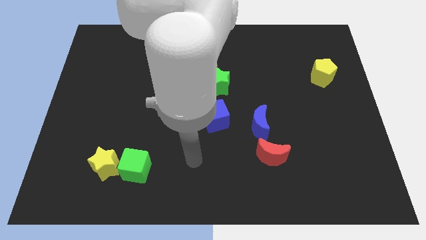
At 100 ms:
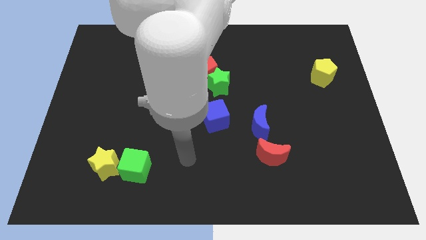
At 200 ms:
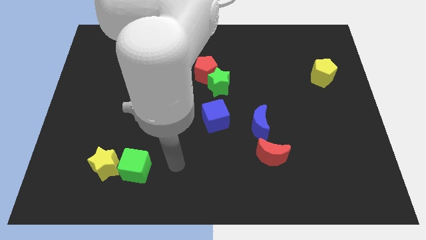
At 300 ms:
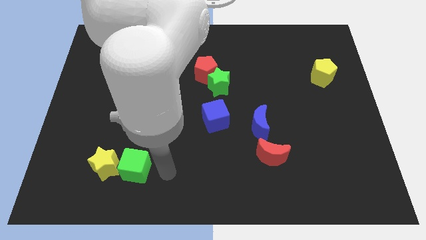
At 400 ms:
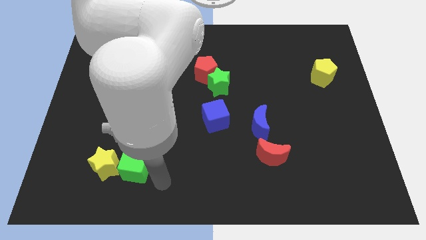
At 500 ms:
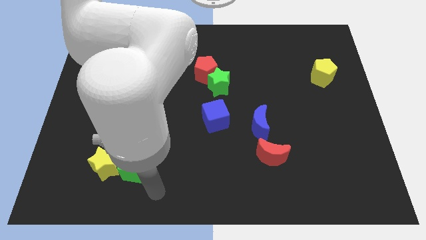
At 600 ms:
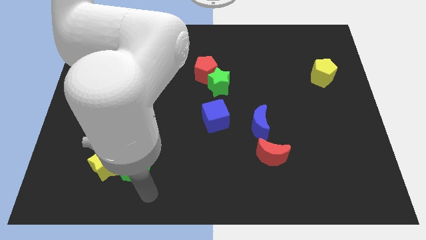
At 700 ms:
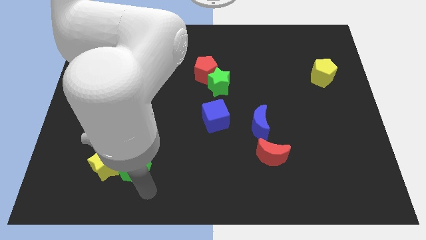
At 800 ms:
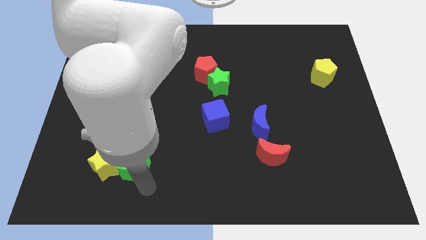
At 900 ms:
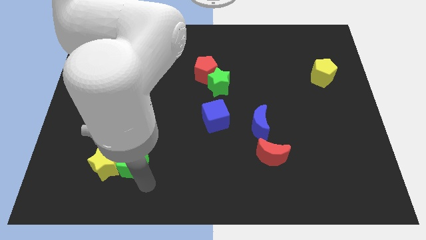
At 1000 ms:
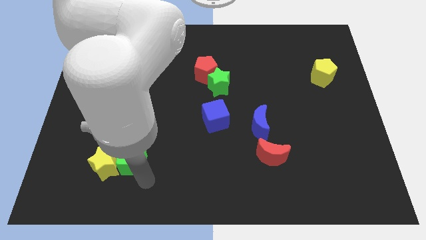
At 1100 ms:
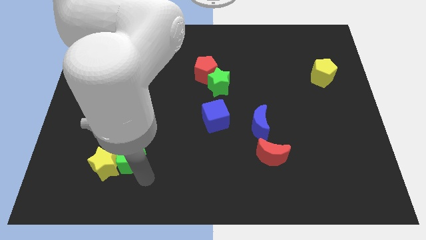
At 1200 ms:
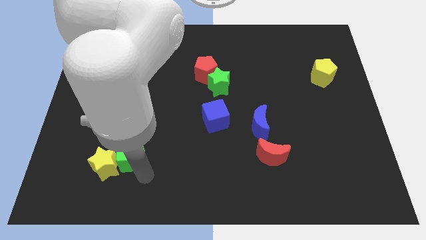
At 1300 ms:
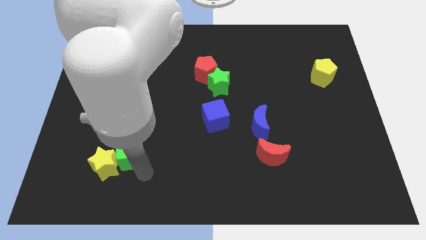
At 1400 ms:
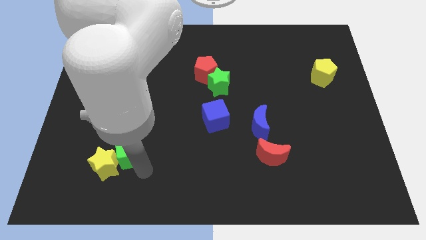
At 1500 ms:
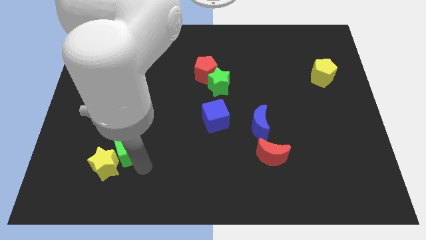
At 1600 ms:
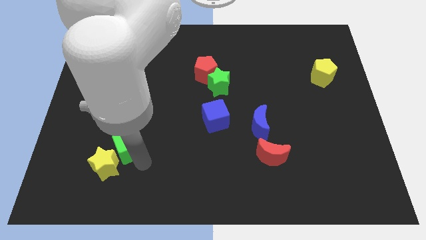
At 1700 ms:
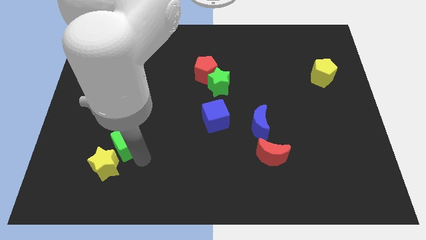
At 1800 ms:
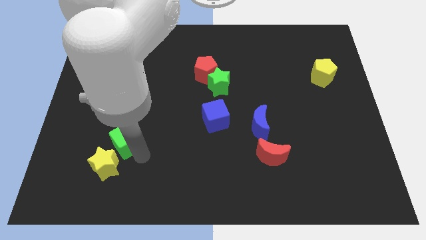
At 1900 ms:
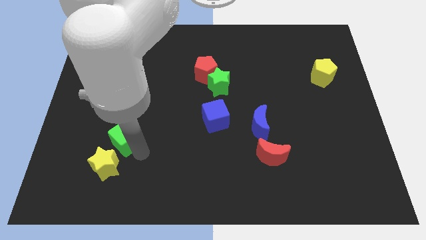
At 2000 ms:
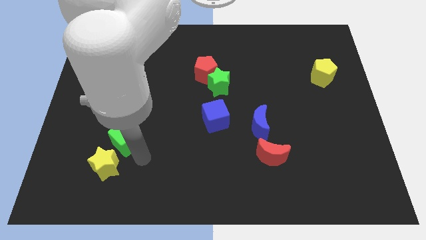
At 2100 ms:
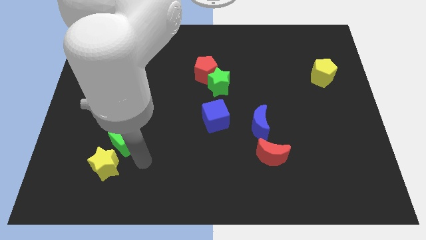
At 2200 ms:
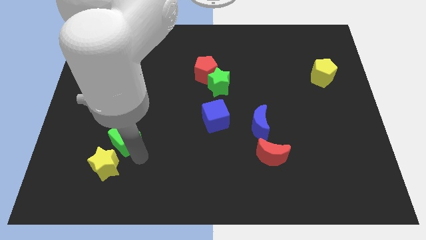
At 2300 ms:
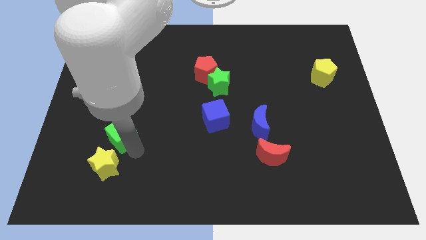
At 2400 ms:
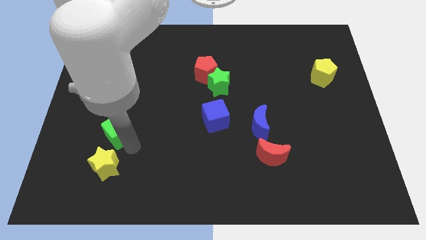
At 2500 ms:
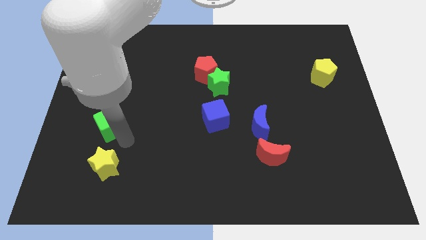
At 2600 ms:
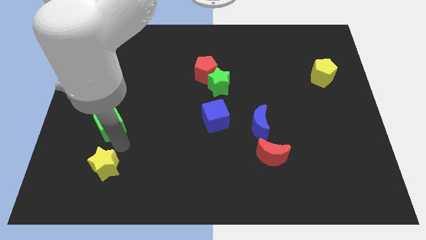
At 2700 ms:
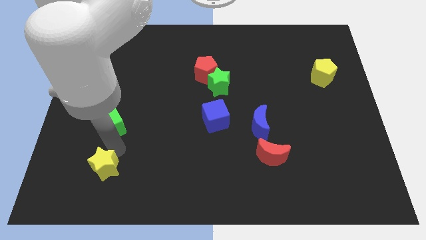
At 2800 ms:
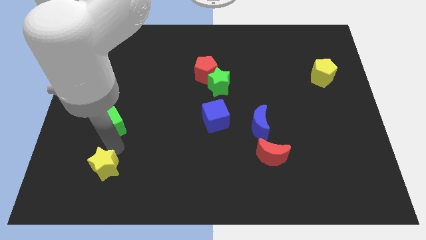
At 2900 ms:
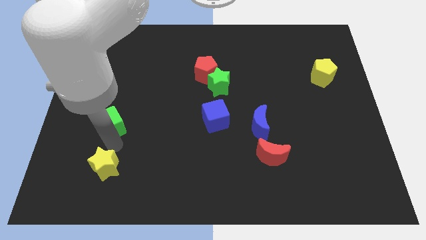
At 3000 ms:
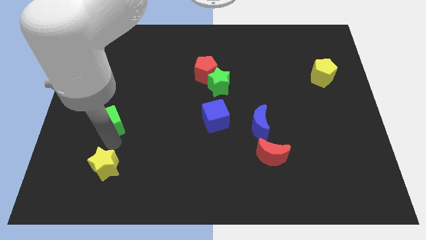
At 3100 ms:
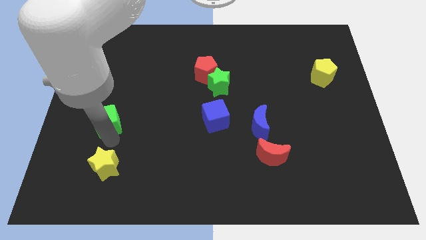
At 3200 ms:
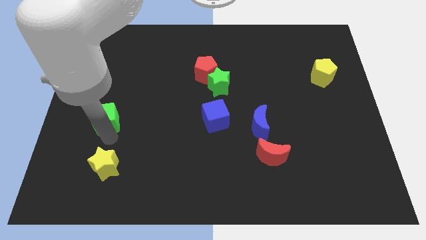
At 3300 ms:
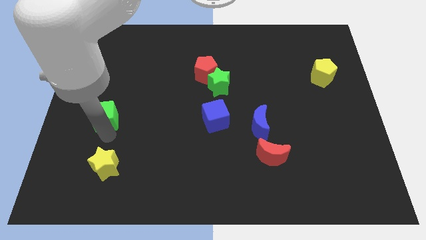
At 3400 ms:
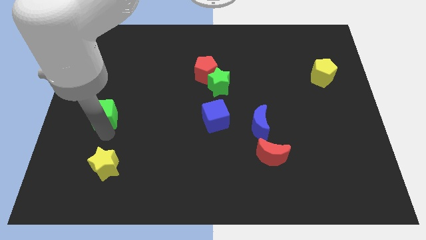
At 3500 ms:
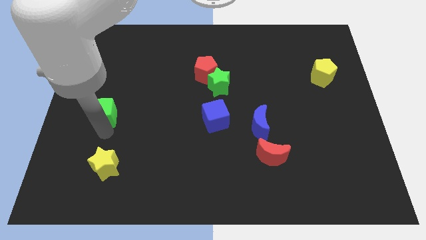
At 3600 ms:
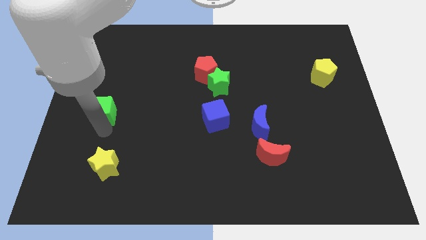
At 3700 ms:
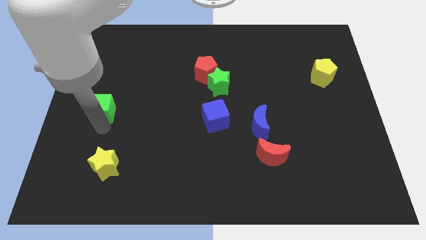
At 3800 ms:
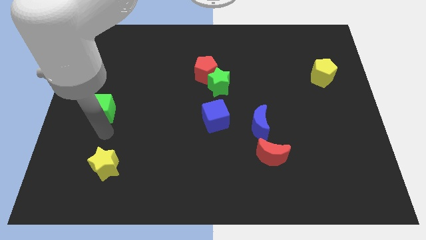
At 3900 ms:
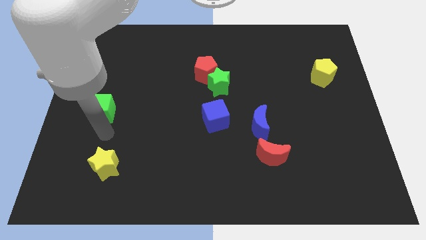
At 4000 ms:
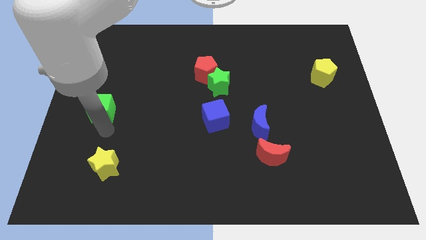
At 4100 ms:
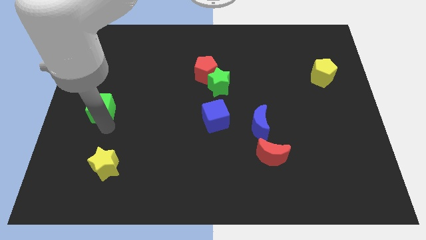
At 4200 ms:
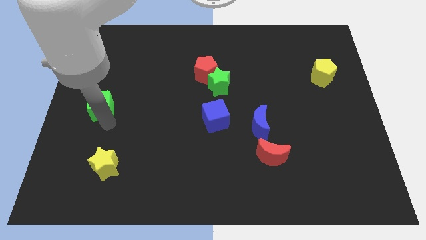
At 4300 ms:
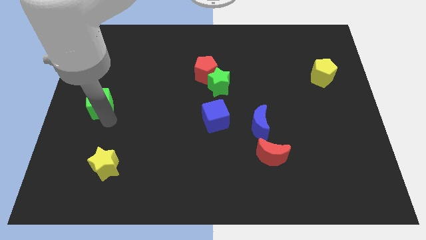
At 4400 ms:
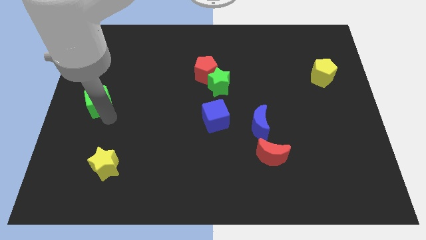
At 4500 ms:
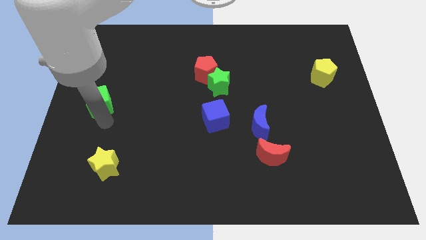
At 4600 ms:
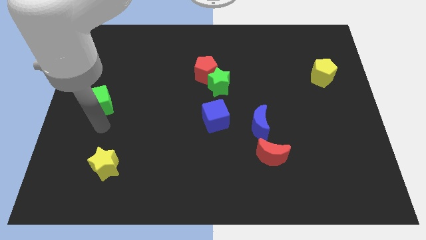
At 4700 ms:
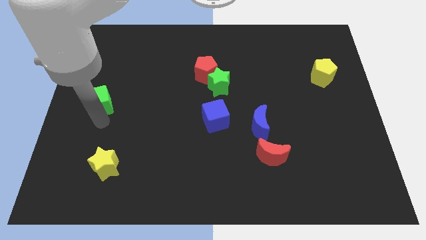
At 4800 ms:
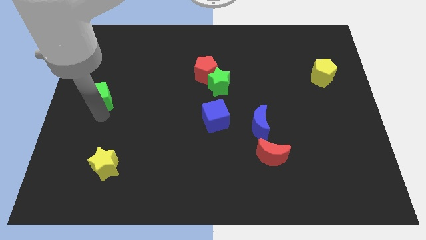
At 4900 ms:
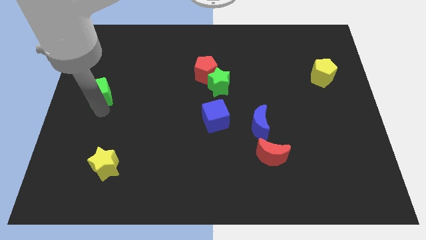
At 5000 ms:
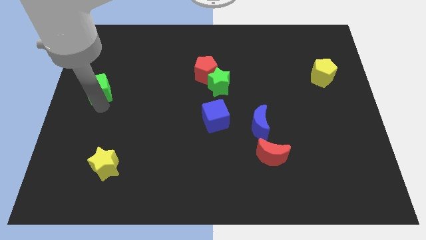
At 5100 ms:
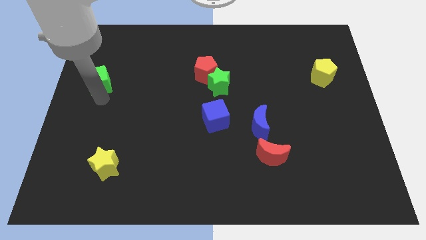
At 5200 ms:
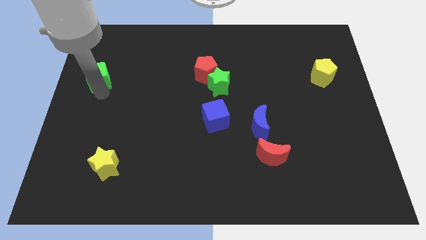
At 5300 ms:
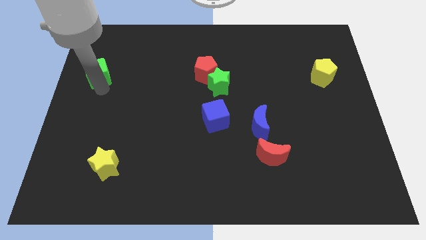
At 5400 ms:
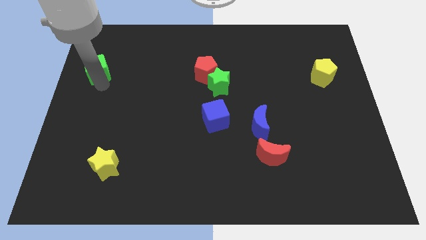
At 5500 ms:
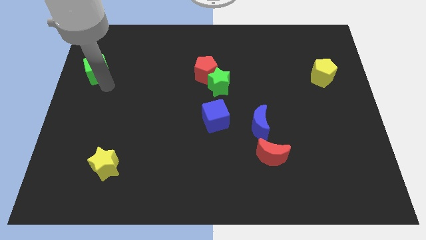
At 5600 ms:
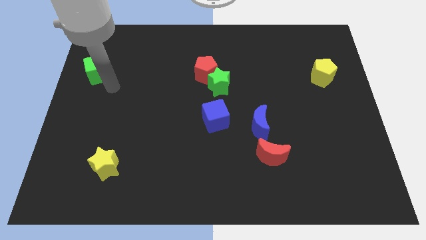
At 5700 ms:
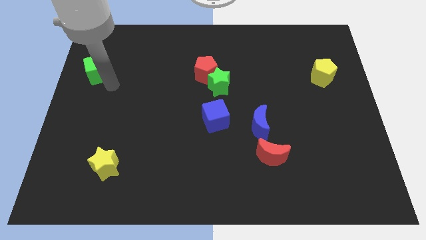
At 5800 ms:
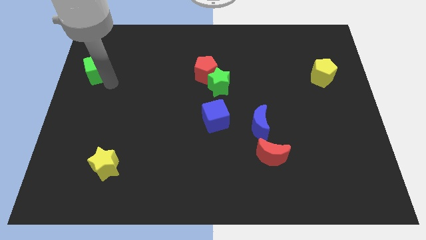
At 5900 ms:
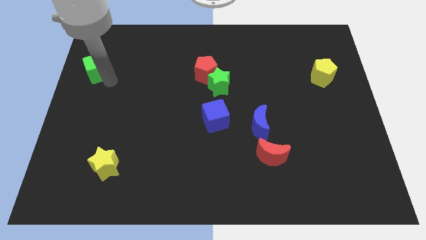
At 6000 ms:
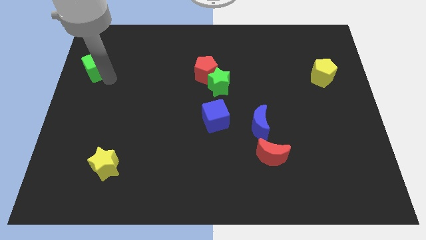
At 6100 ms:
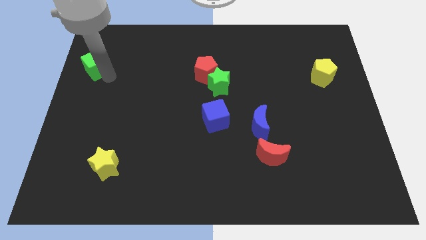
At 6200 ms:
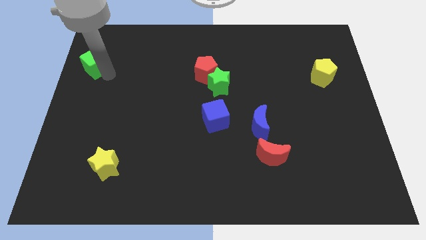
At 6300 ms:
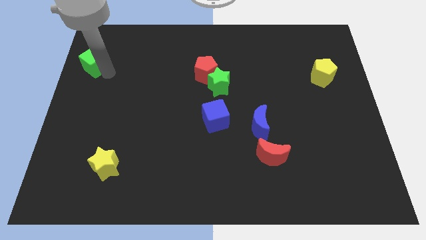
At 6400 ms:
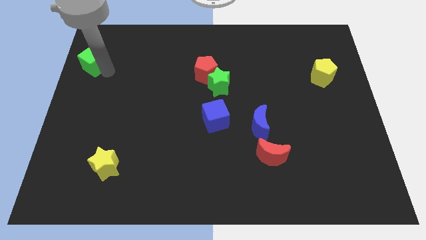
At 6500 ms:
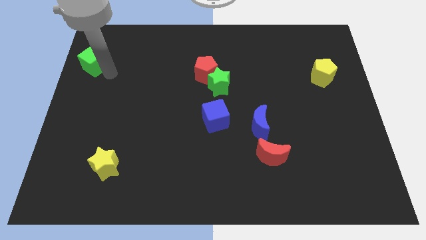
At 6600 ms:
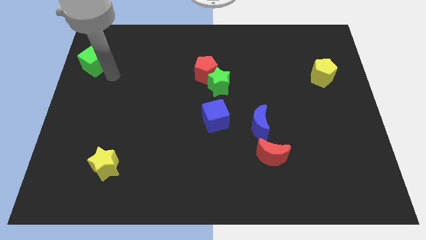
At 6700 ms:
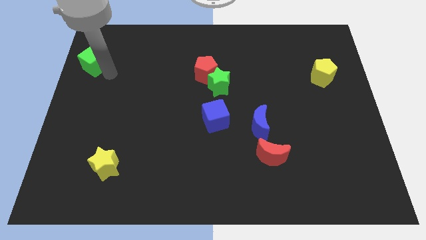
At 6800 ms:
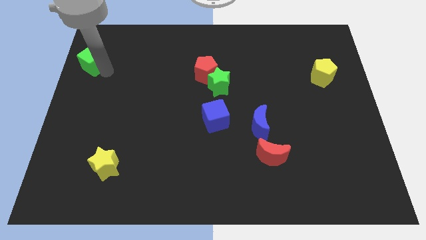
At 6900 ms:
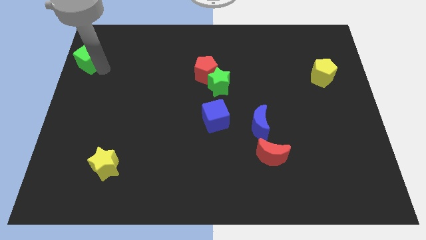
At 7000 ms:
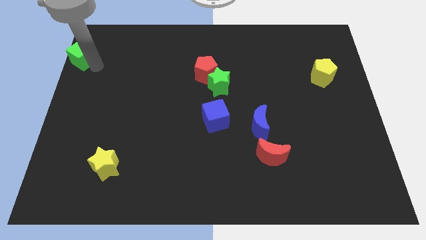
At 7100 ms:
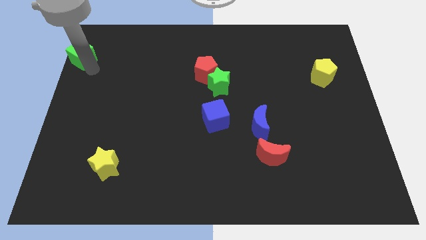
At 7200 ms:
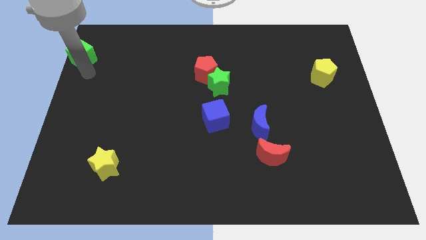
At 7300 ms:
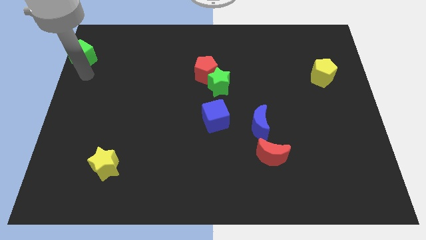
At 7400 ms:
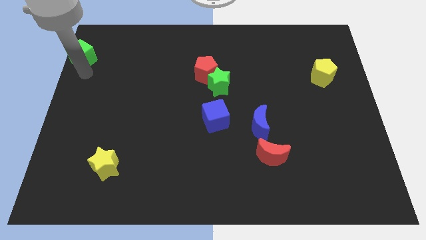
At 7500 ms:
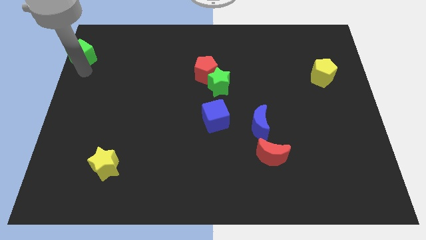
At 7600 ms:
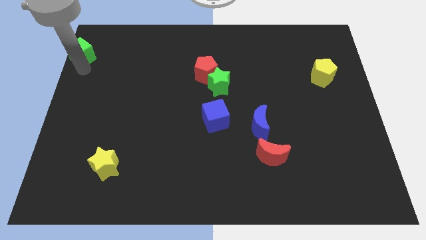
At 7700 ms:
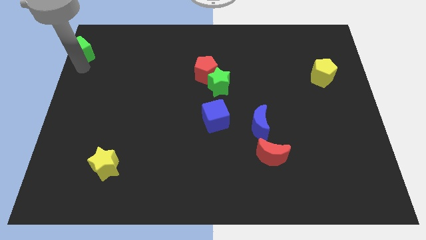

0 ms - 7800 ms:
slide the green cube to the top left of the board
